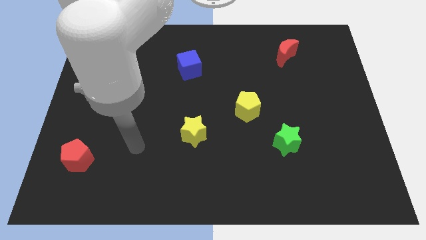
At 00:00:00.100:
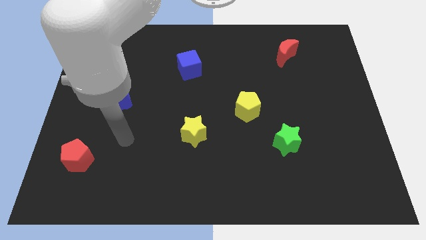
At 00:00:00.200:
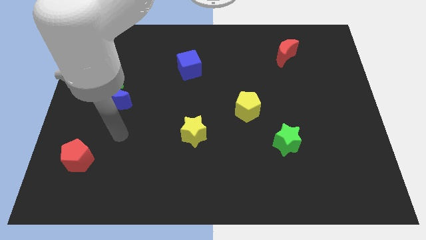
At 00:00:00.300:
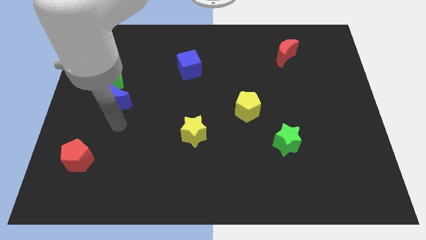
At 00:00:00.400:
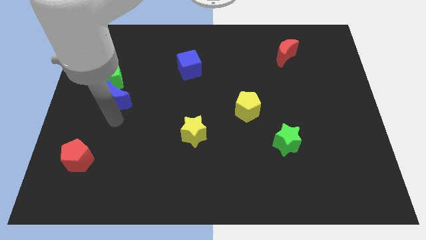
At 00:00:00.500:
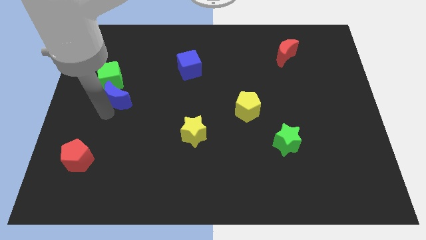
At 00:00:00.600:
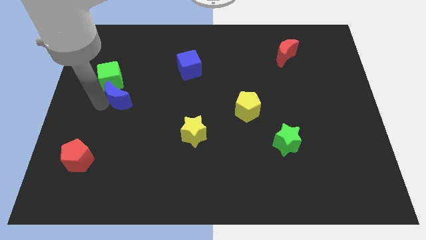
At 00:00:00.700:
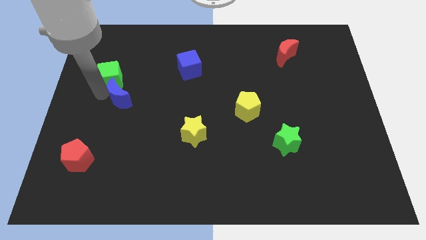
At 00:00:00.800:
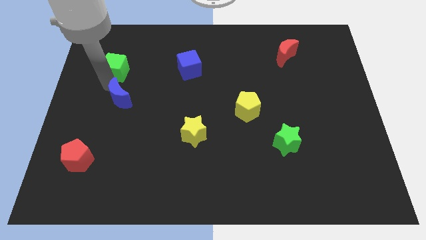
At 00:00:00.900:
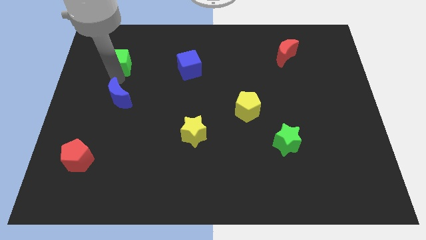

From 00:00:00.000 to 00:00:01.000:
move the blue moon away from the green cube

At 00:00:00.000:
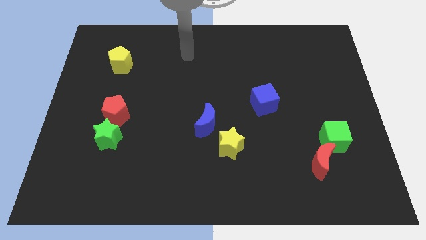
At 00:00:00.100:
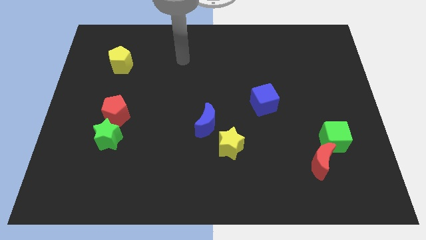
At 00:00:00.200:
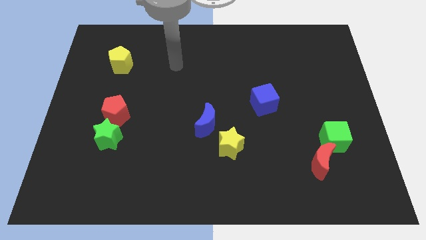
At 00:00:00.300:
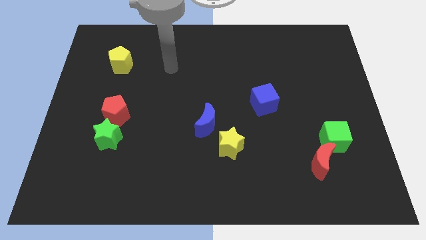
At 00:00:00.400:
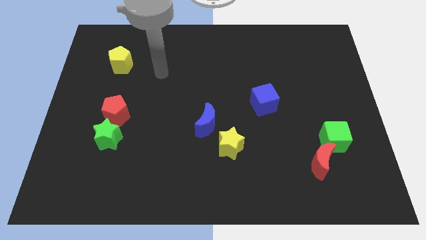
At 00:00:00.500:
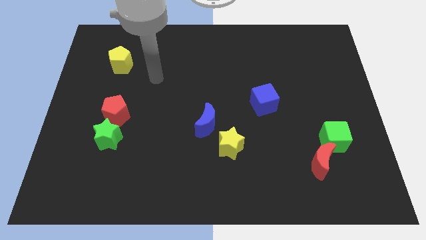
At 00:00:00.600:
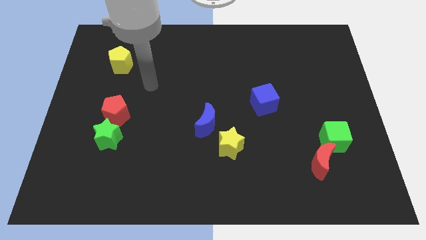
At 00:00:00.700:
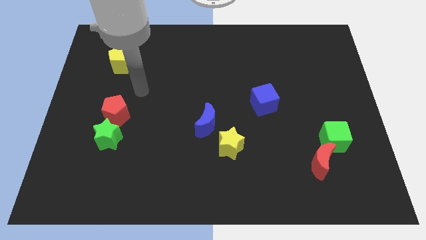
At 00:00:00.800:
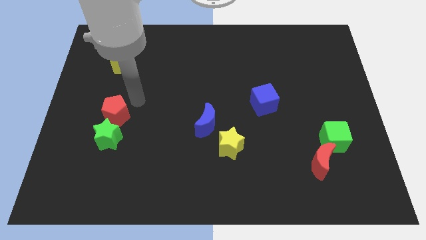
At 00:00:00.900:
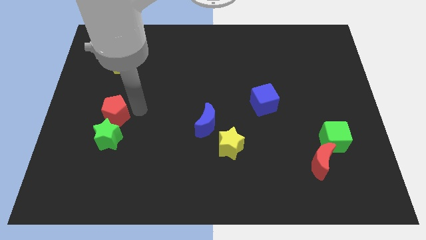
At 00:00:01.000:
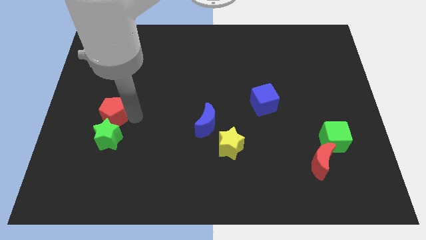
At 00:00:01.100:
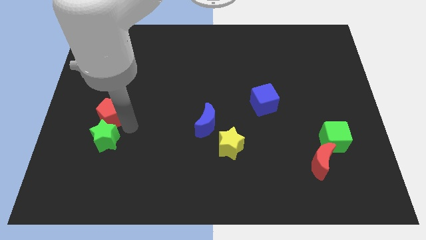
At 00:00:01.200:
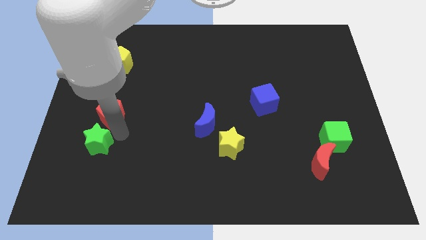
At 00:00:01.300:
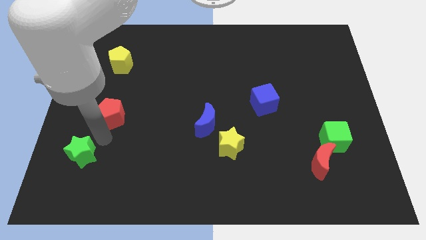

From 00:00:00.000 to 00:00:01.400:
move the red pentagon away from the green star

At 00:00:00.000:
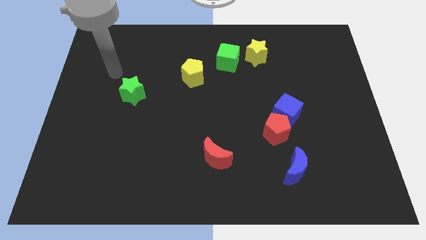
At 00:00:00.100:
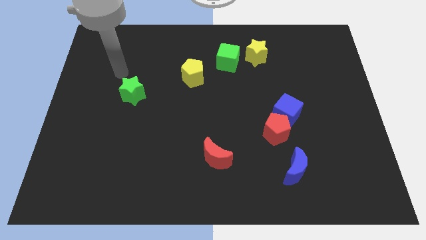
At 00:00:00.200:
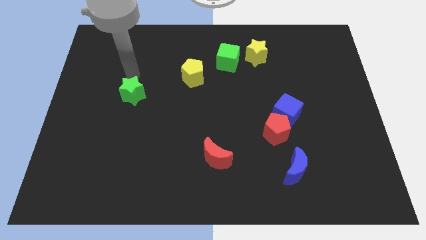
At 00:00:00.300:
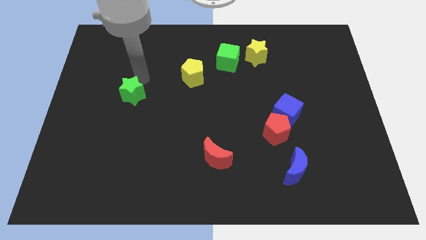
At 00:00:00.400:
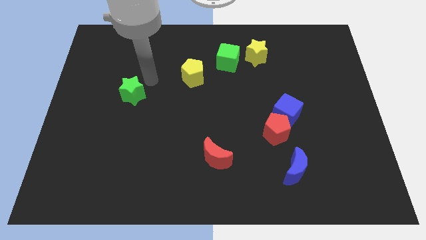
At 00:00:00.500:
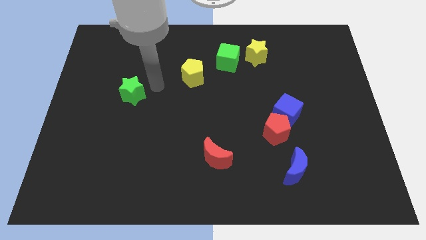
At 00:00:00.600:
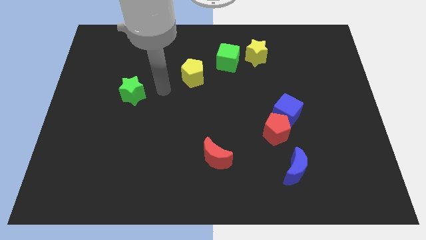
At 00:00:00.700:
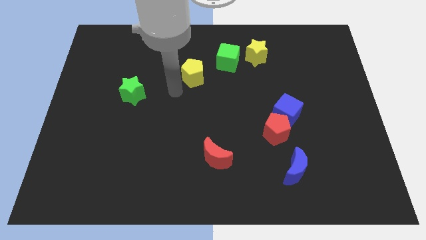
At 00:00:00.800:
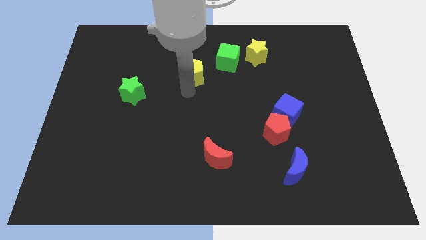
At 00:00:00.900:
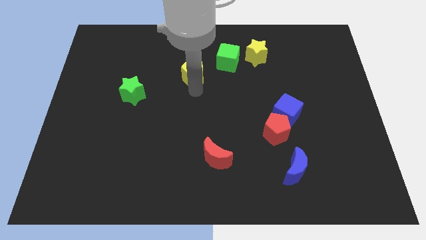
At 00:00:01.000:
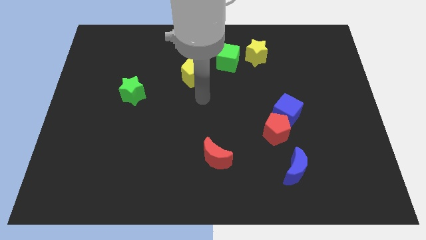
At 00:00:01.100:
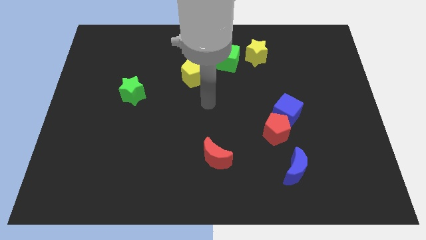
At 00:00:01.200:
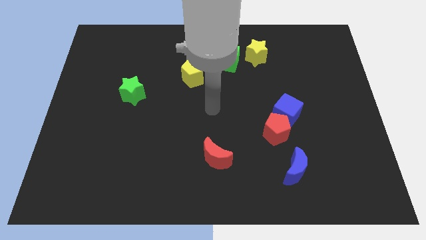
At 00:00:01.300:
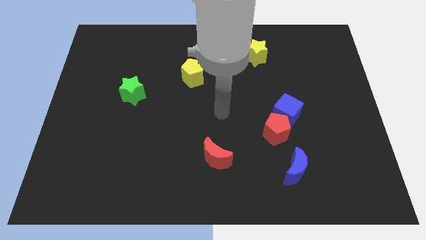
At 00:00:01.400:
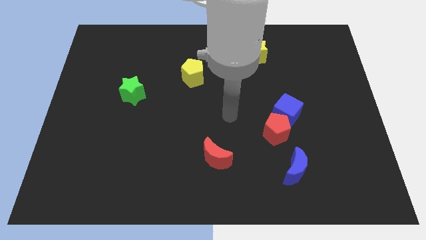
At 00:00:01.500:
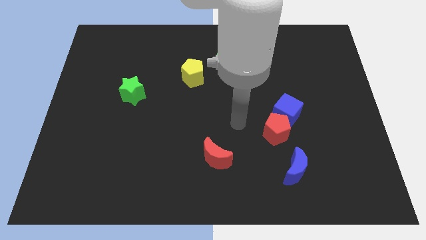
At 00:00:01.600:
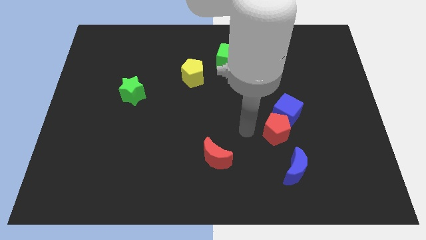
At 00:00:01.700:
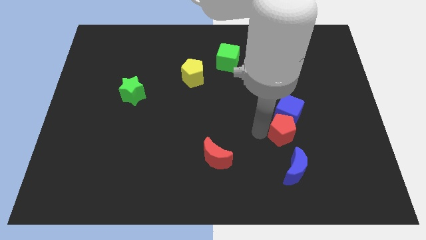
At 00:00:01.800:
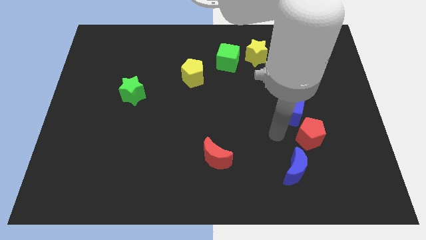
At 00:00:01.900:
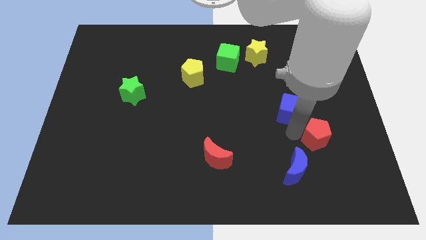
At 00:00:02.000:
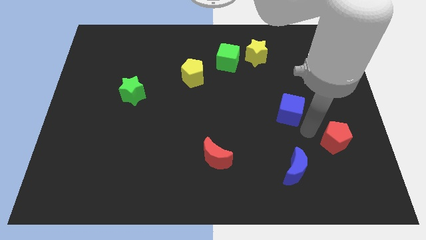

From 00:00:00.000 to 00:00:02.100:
move the blue cube away from the red pentagon

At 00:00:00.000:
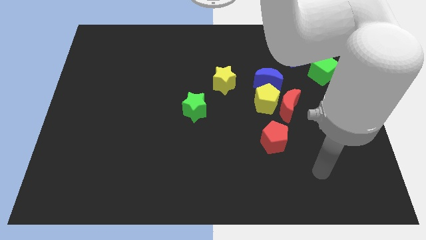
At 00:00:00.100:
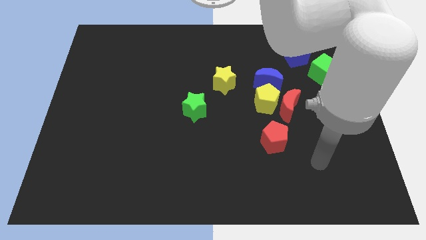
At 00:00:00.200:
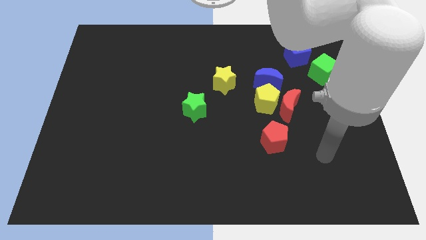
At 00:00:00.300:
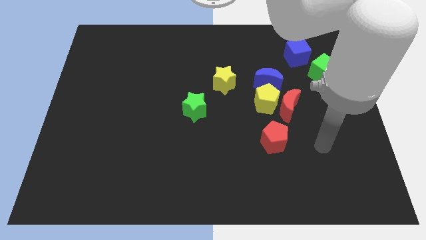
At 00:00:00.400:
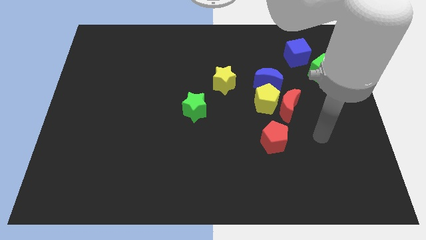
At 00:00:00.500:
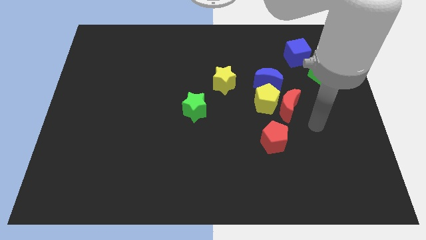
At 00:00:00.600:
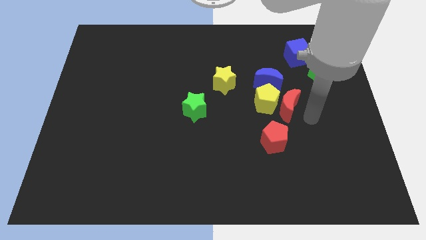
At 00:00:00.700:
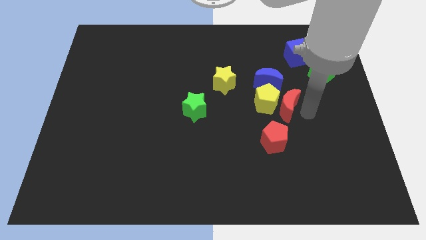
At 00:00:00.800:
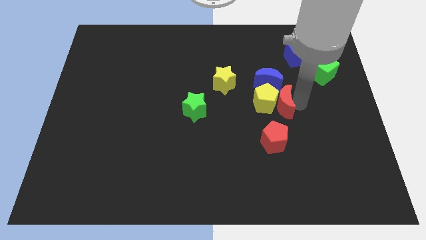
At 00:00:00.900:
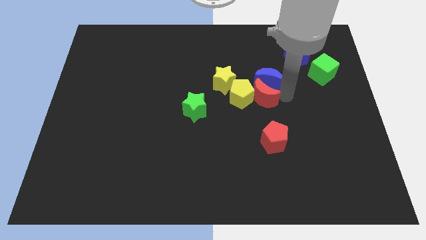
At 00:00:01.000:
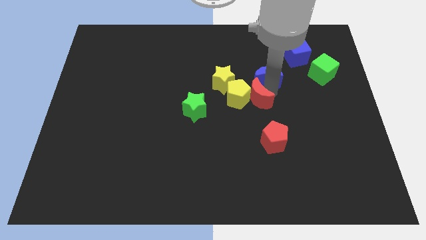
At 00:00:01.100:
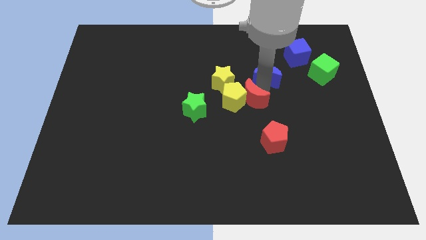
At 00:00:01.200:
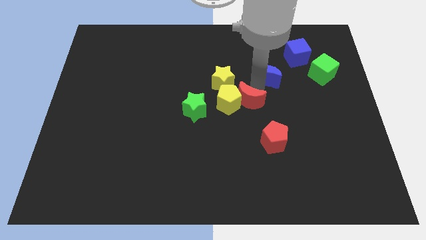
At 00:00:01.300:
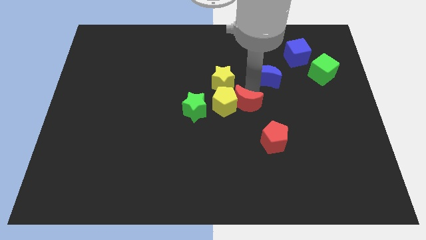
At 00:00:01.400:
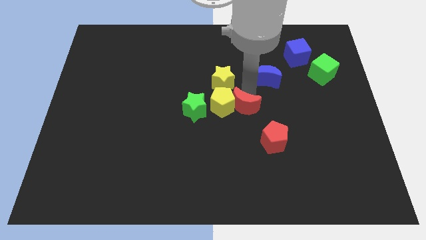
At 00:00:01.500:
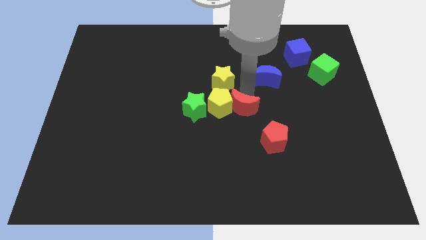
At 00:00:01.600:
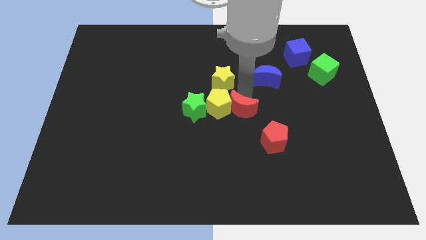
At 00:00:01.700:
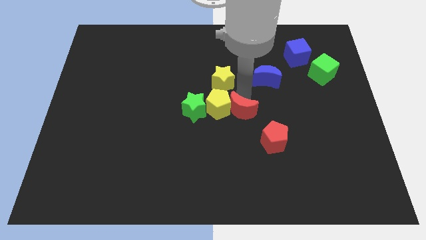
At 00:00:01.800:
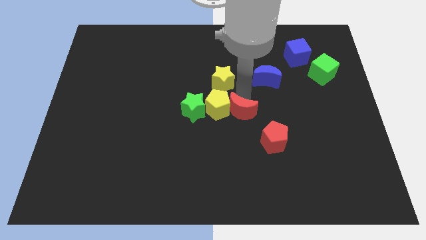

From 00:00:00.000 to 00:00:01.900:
separate the yellow pentagon from the red moon and blue moon

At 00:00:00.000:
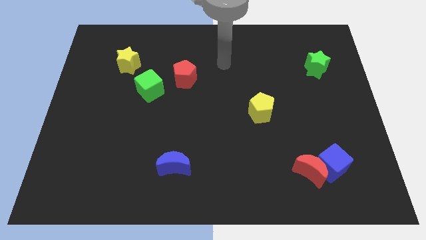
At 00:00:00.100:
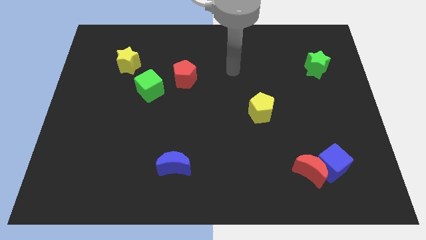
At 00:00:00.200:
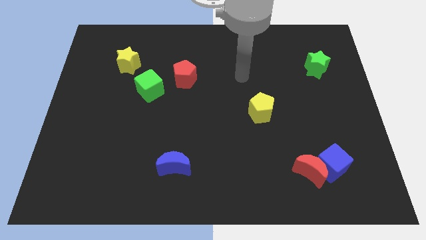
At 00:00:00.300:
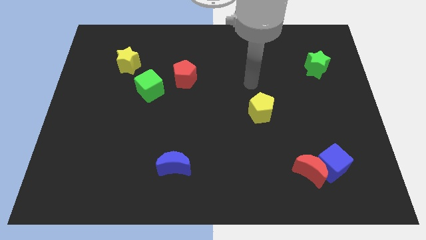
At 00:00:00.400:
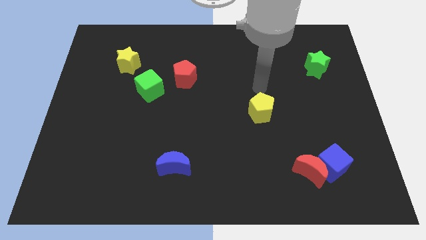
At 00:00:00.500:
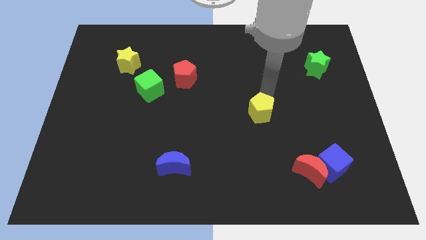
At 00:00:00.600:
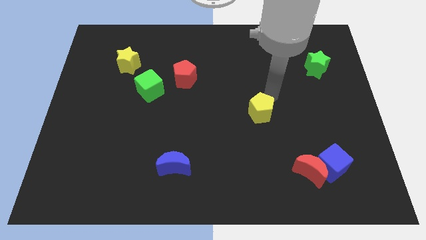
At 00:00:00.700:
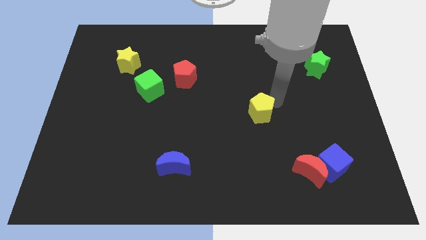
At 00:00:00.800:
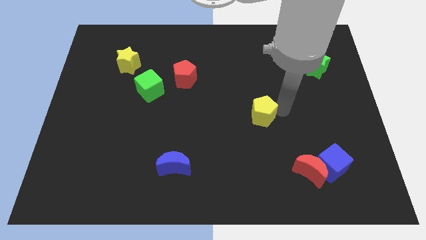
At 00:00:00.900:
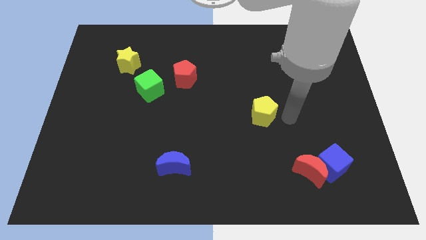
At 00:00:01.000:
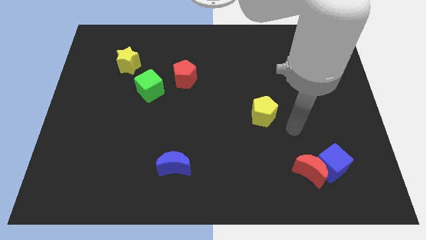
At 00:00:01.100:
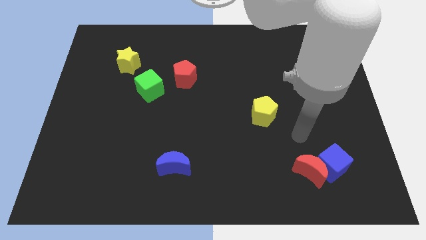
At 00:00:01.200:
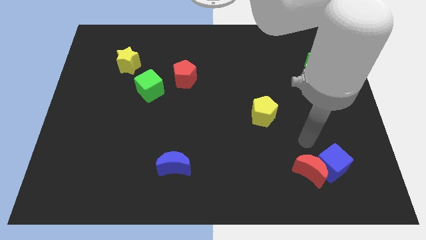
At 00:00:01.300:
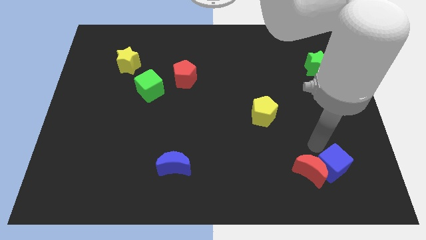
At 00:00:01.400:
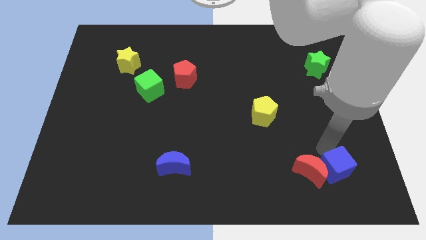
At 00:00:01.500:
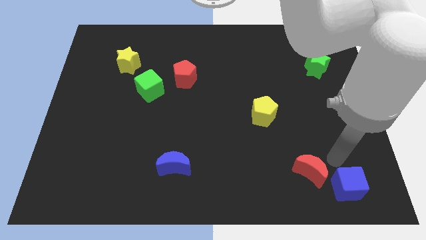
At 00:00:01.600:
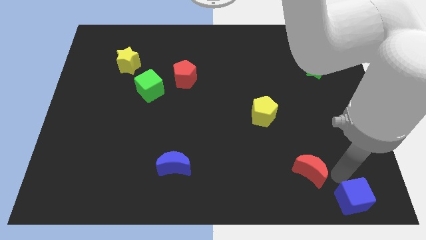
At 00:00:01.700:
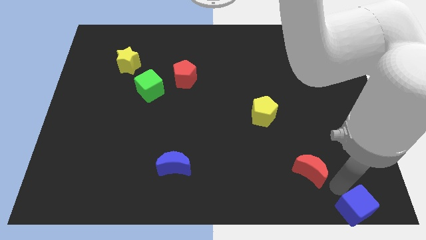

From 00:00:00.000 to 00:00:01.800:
separate the red moon from the blue cube

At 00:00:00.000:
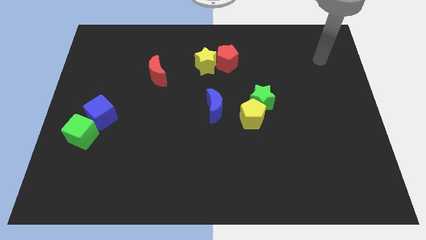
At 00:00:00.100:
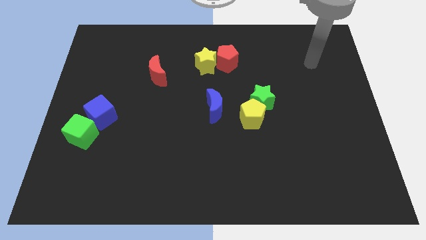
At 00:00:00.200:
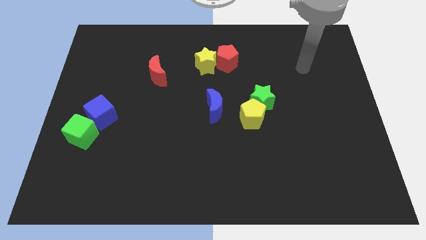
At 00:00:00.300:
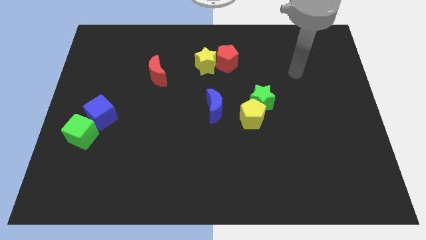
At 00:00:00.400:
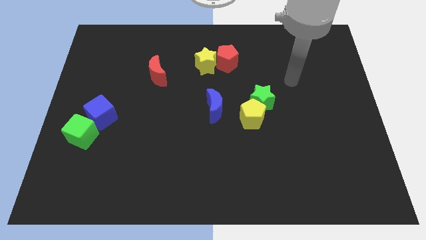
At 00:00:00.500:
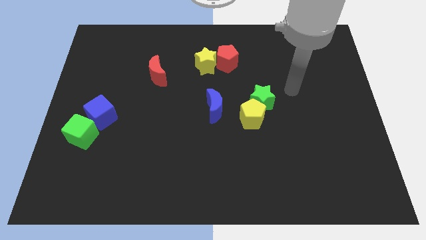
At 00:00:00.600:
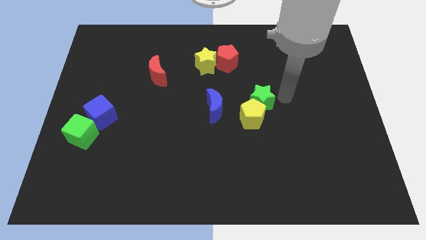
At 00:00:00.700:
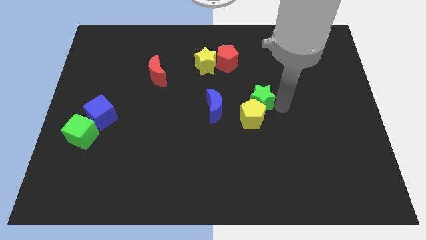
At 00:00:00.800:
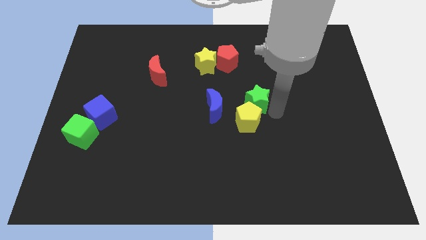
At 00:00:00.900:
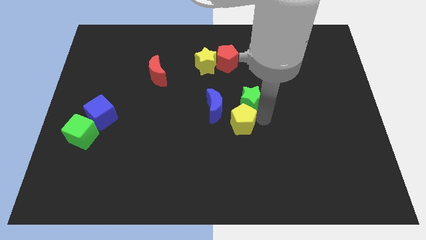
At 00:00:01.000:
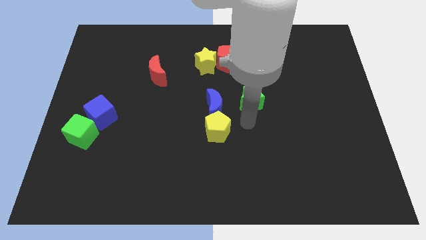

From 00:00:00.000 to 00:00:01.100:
separate the green star from the yellow pentagon
